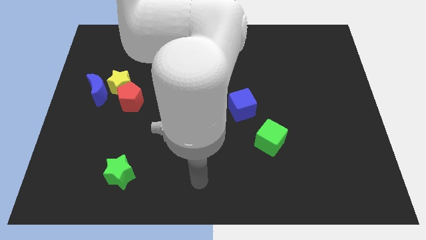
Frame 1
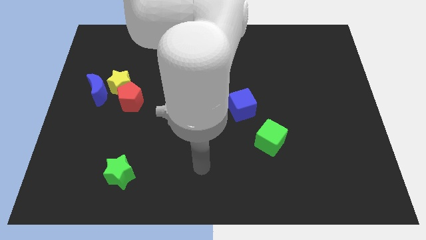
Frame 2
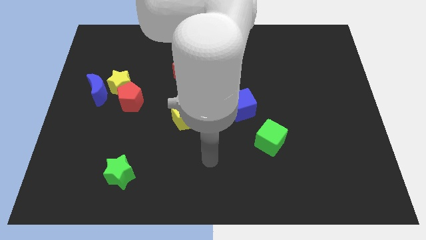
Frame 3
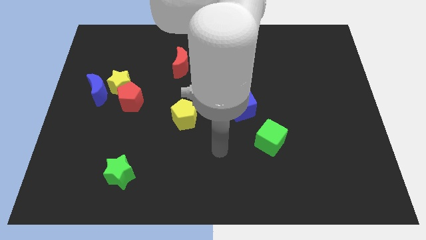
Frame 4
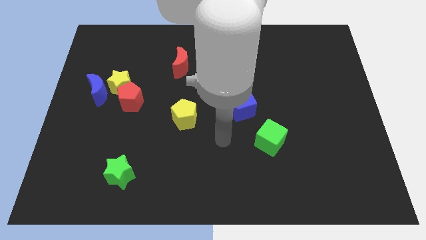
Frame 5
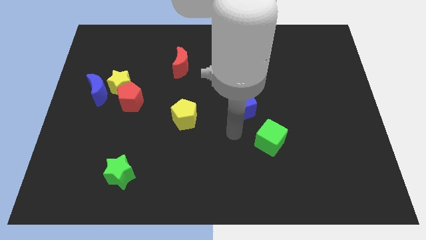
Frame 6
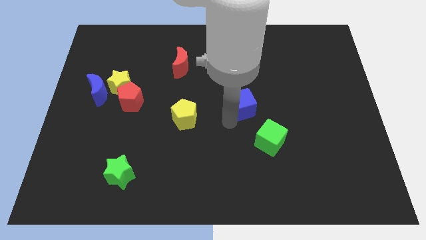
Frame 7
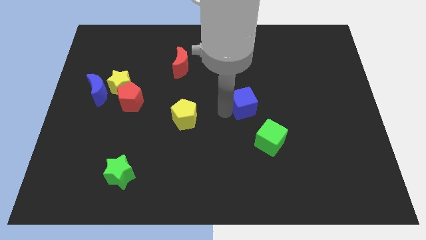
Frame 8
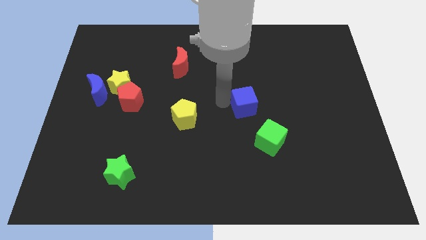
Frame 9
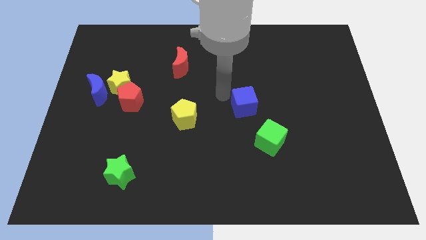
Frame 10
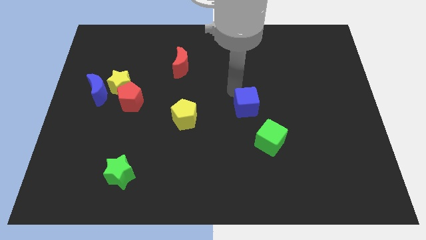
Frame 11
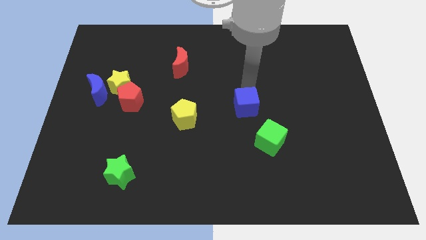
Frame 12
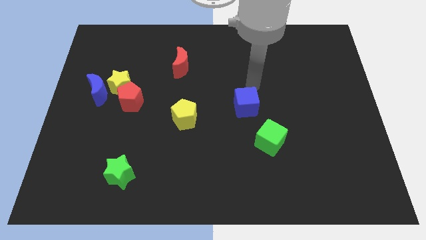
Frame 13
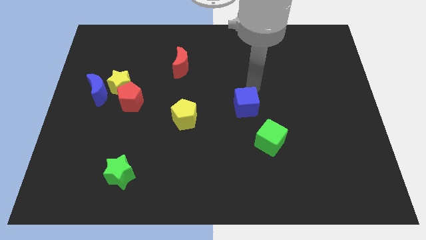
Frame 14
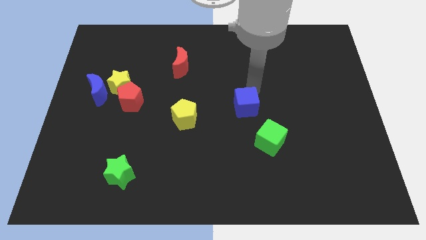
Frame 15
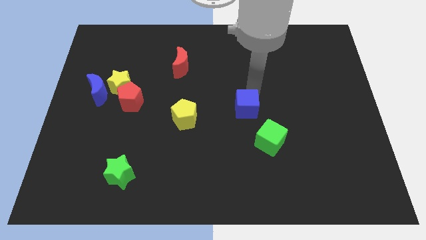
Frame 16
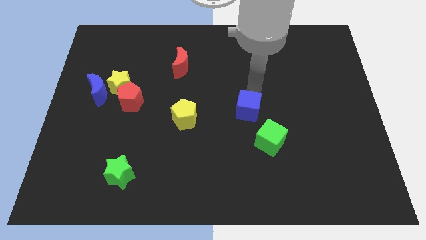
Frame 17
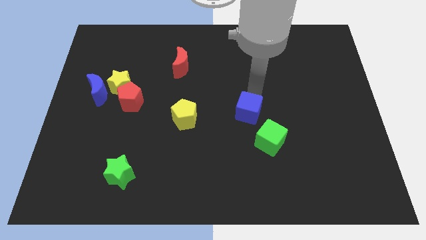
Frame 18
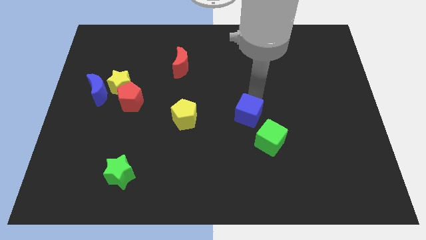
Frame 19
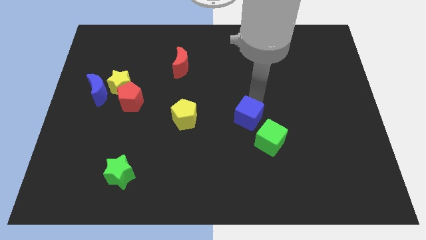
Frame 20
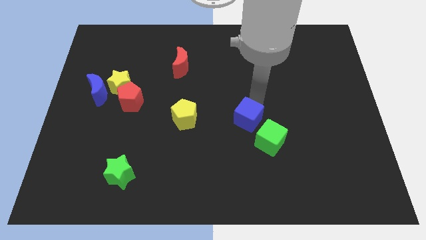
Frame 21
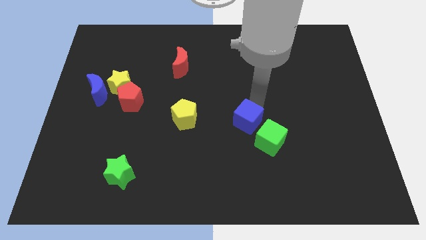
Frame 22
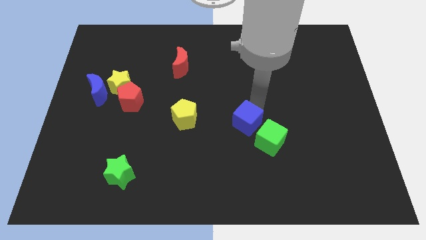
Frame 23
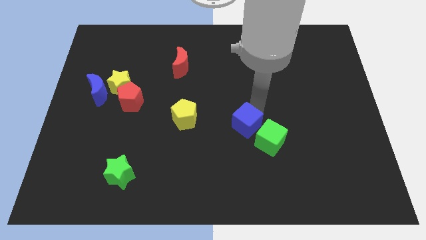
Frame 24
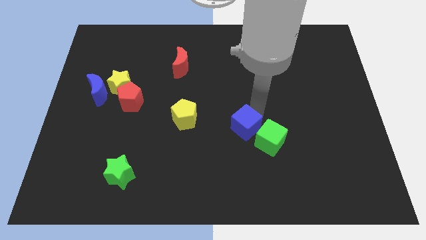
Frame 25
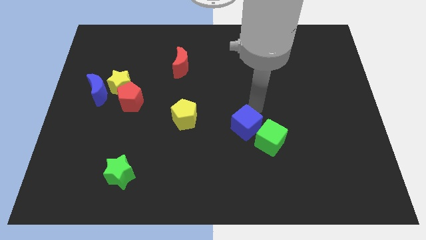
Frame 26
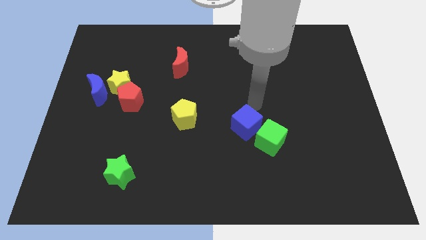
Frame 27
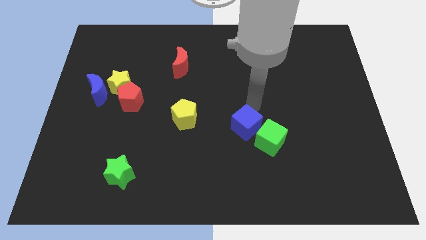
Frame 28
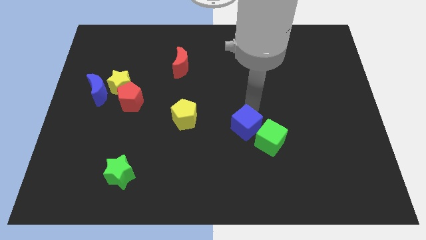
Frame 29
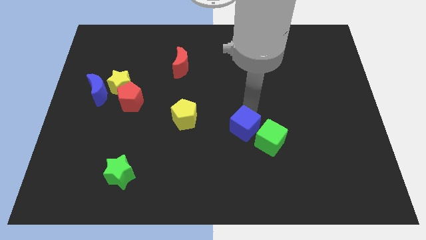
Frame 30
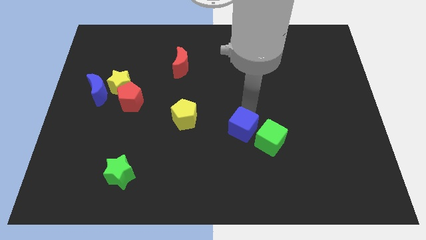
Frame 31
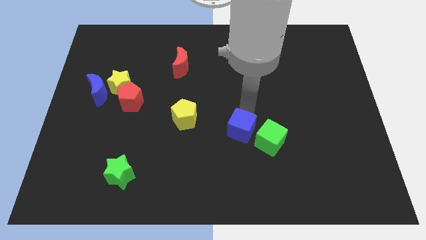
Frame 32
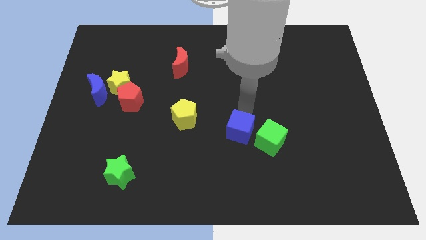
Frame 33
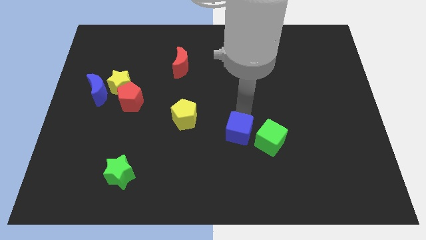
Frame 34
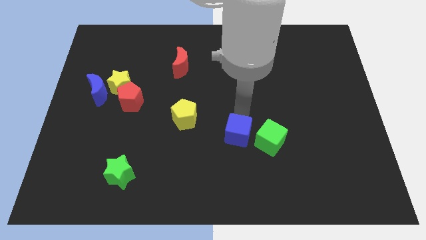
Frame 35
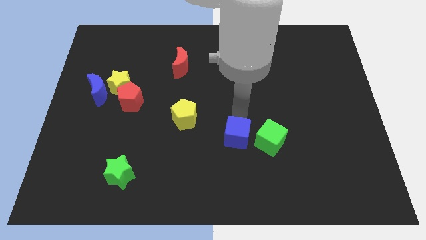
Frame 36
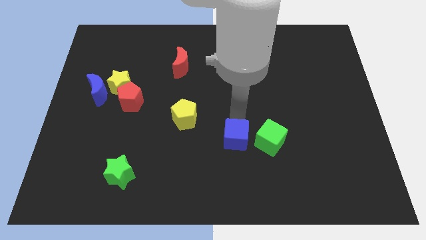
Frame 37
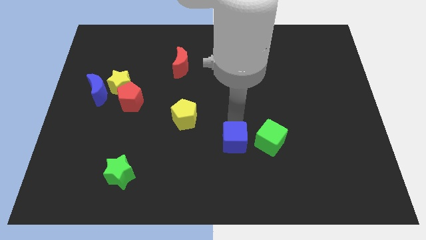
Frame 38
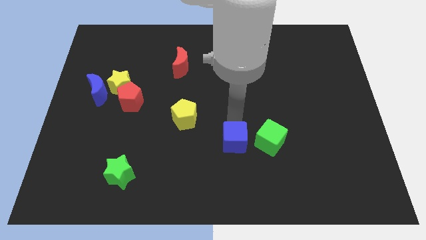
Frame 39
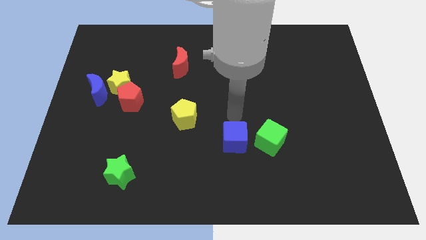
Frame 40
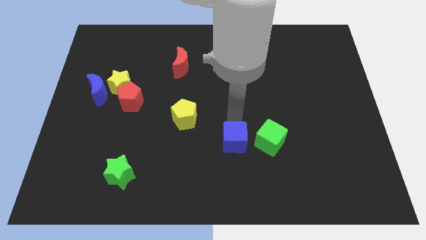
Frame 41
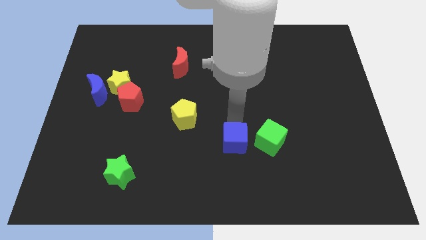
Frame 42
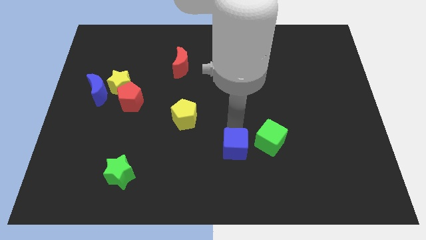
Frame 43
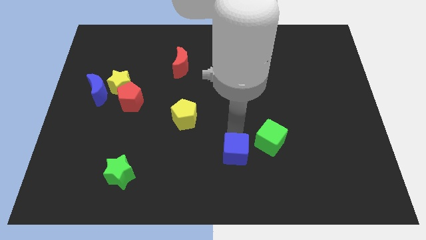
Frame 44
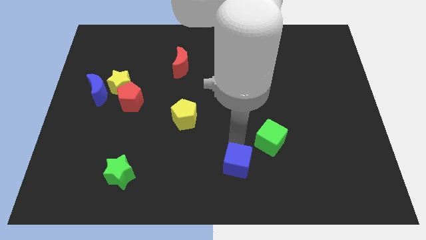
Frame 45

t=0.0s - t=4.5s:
push the blue cube to the bottom

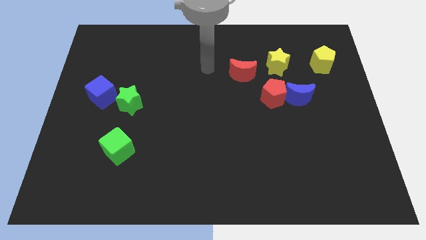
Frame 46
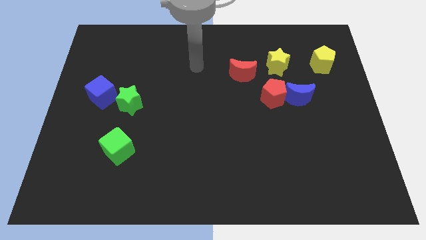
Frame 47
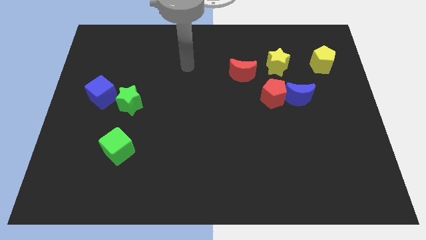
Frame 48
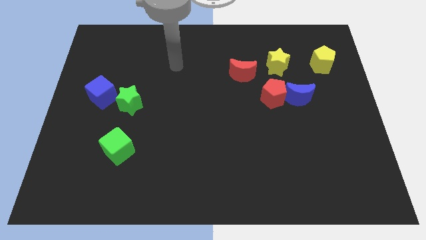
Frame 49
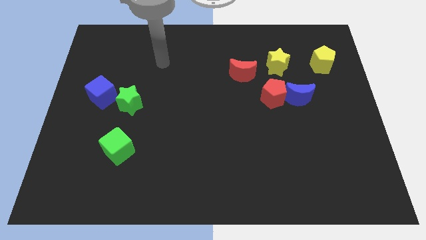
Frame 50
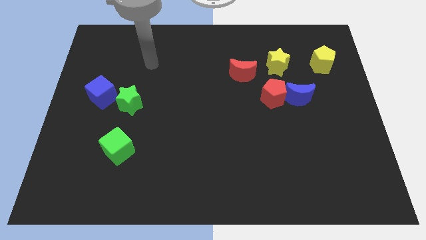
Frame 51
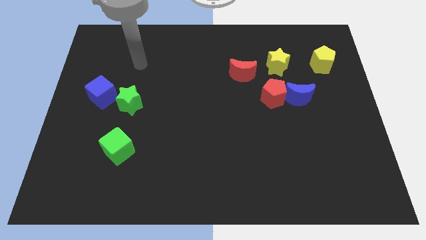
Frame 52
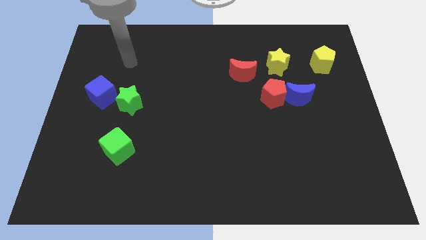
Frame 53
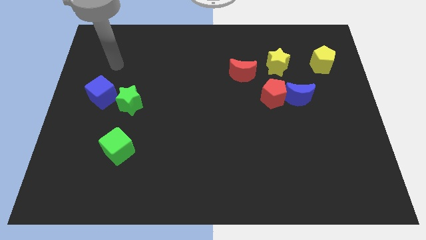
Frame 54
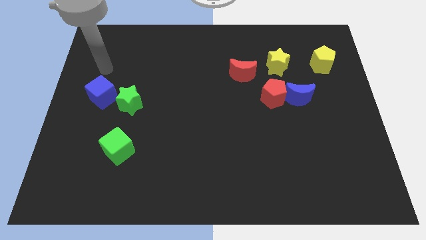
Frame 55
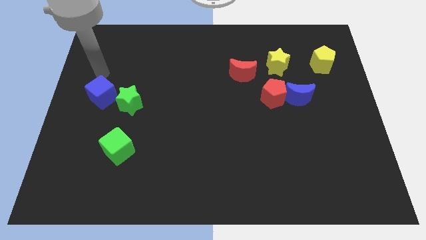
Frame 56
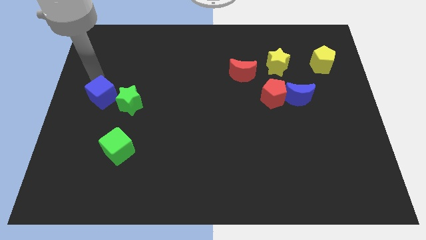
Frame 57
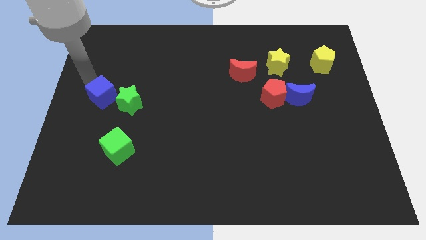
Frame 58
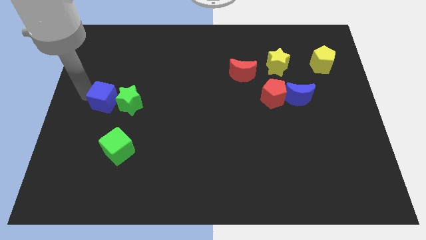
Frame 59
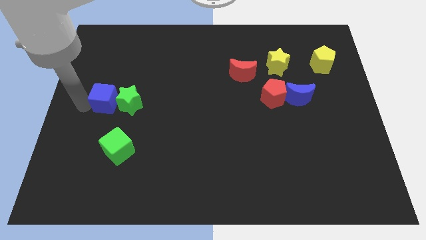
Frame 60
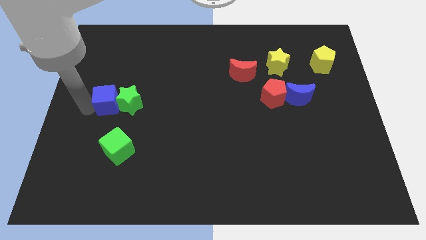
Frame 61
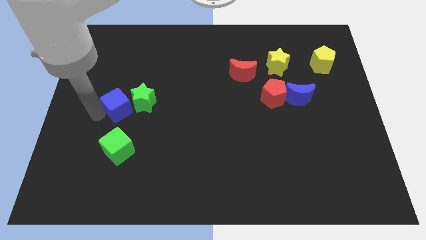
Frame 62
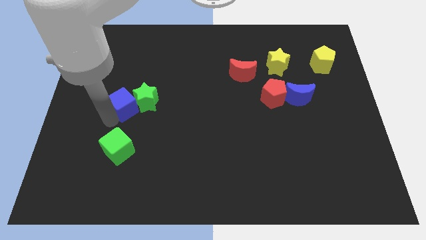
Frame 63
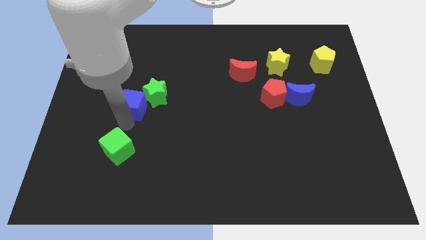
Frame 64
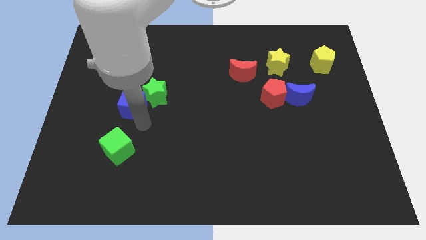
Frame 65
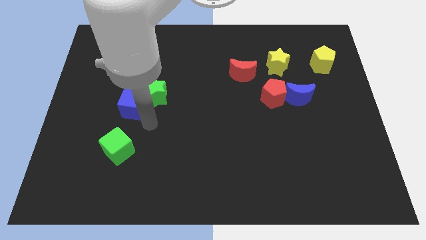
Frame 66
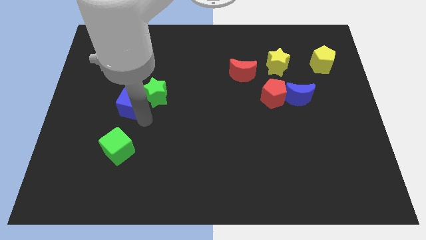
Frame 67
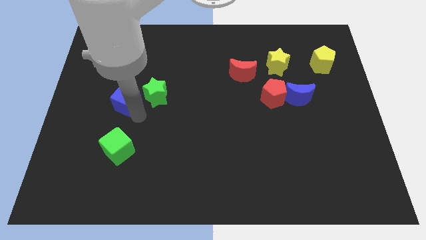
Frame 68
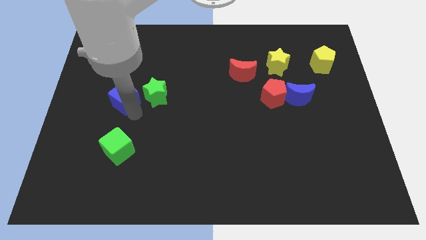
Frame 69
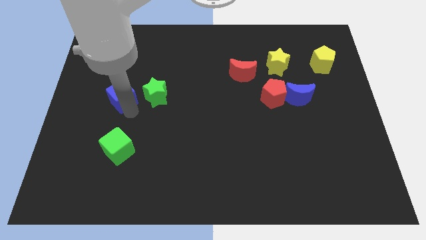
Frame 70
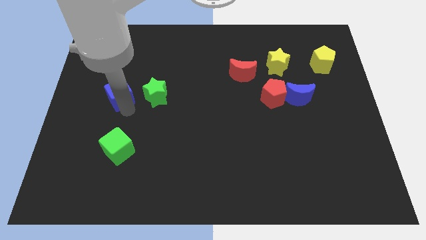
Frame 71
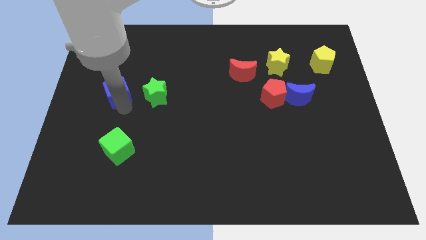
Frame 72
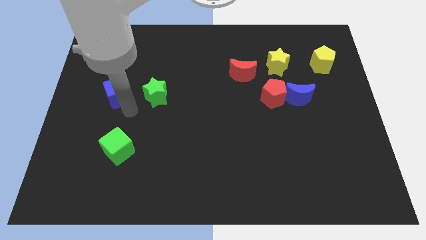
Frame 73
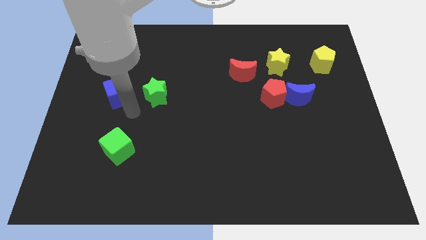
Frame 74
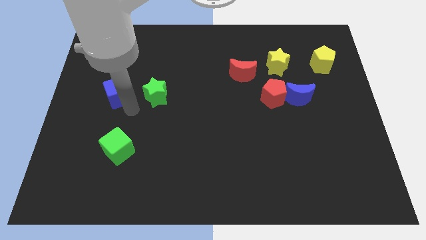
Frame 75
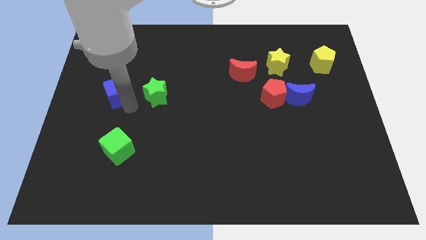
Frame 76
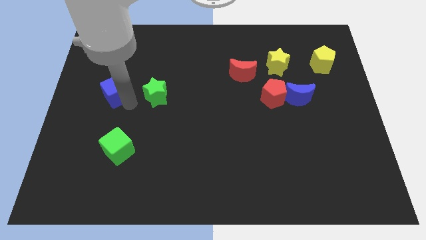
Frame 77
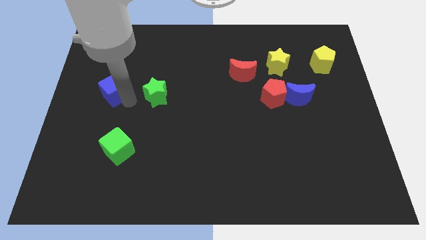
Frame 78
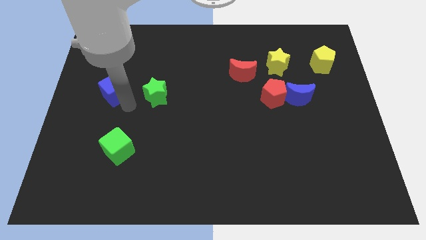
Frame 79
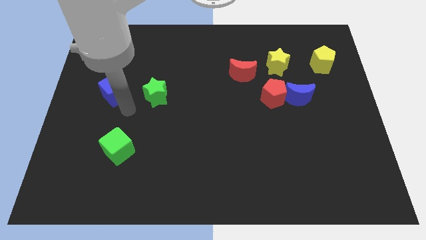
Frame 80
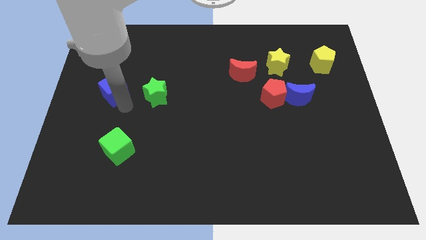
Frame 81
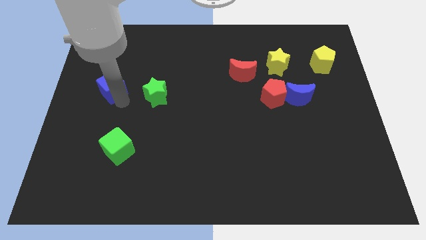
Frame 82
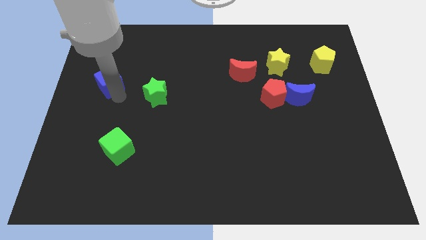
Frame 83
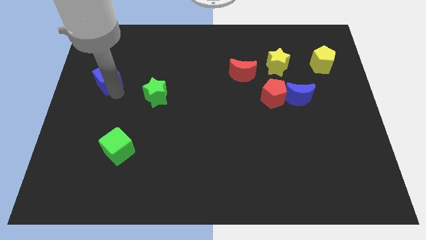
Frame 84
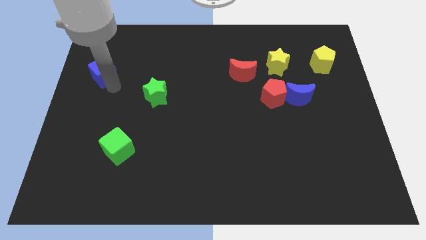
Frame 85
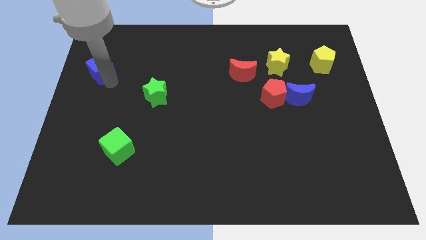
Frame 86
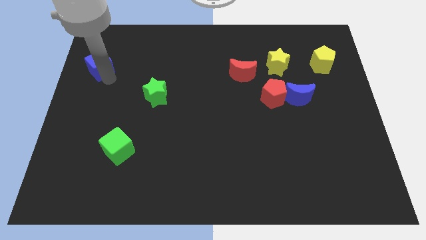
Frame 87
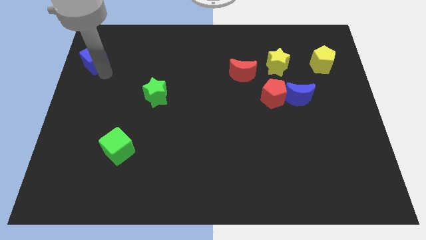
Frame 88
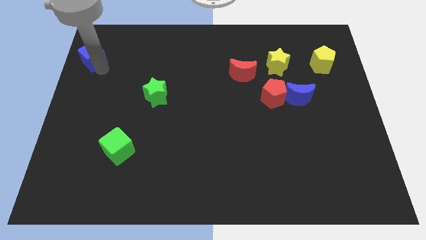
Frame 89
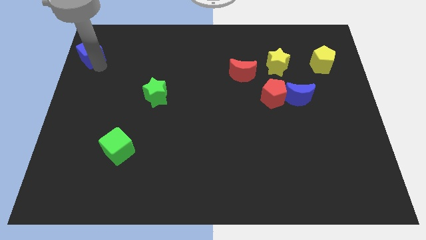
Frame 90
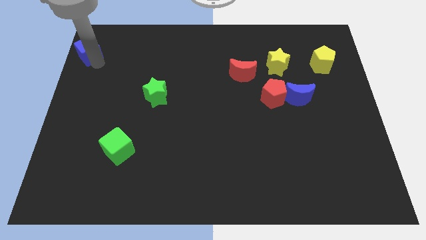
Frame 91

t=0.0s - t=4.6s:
slide the blue cube to the top left of the board
